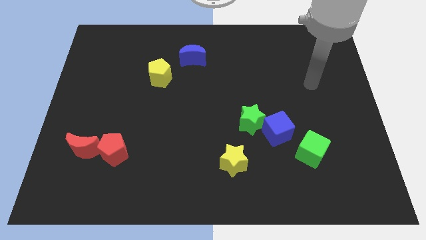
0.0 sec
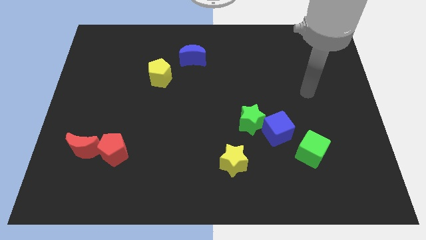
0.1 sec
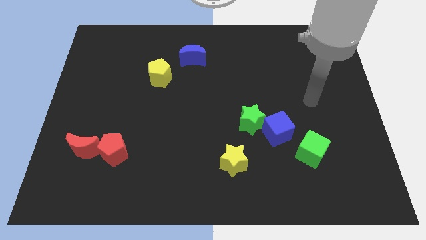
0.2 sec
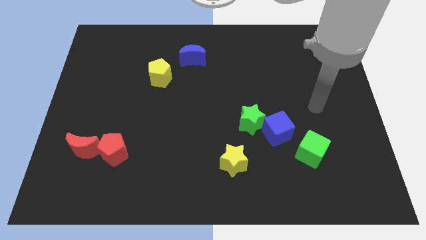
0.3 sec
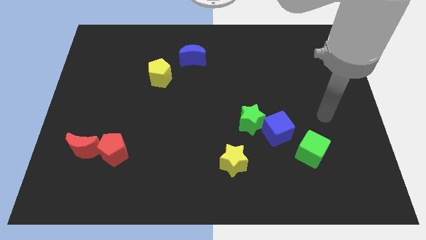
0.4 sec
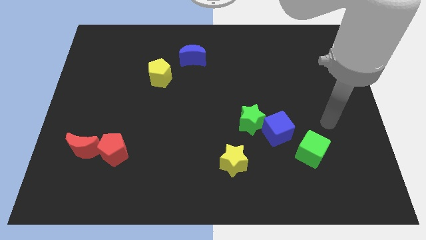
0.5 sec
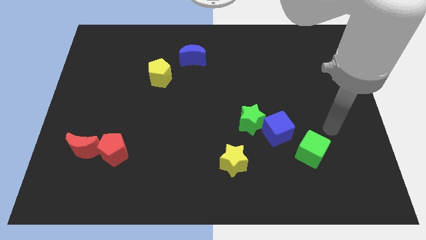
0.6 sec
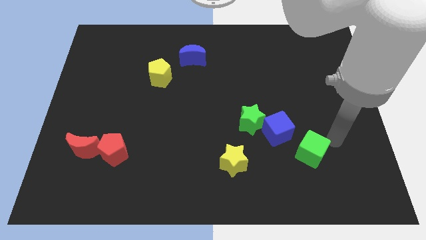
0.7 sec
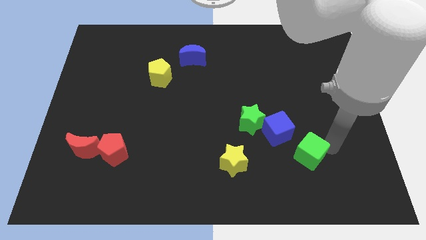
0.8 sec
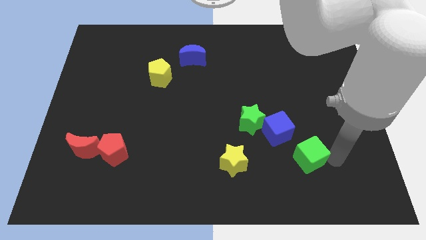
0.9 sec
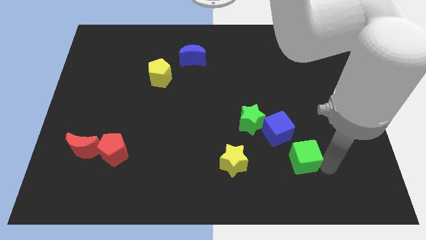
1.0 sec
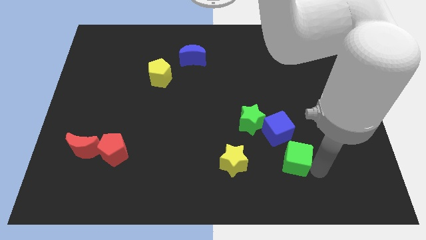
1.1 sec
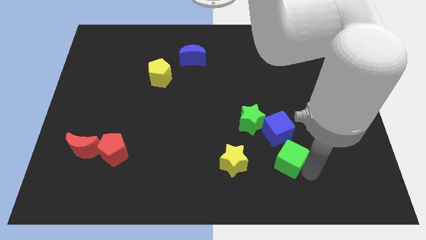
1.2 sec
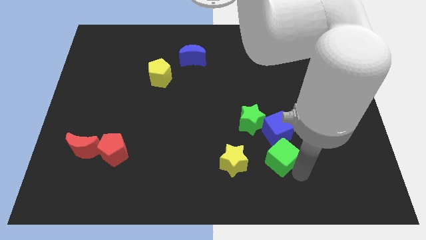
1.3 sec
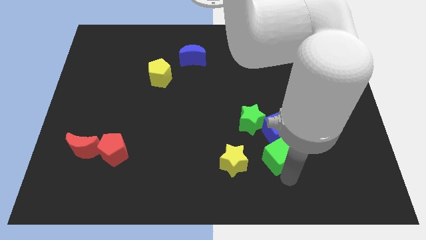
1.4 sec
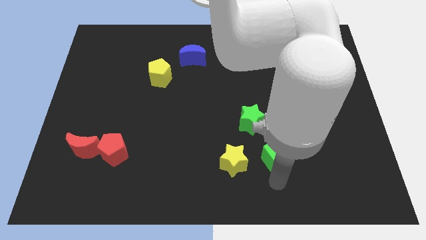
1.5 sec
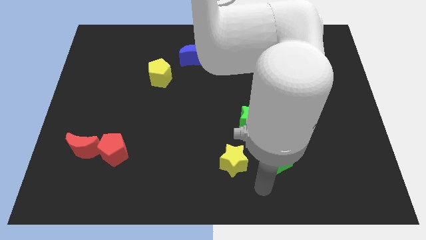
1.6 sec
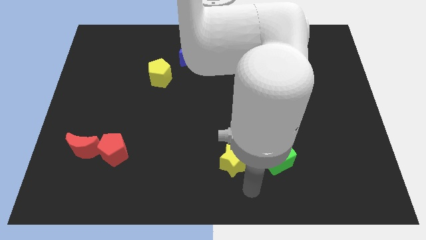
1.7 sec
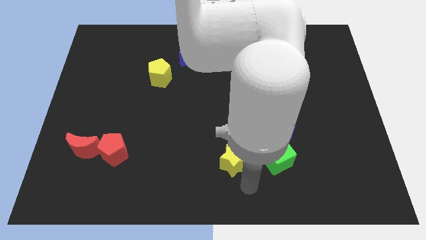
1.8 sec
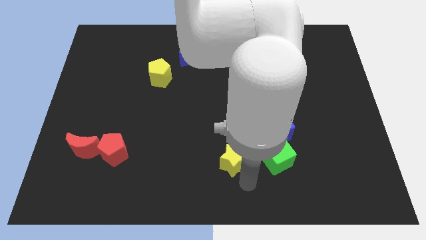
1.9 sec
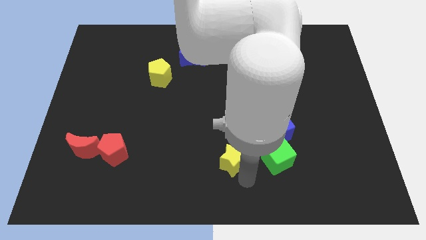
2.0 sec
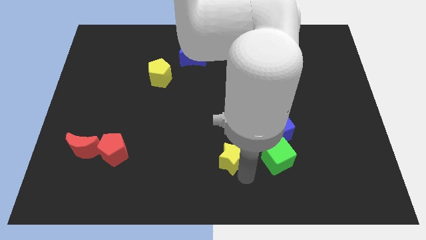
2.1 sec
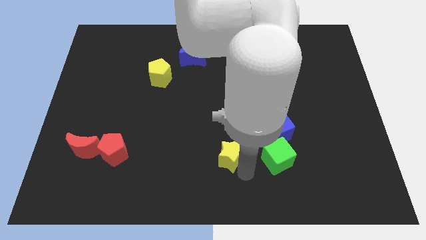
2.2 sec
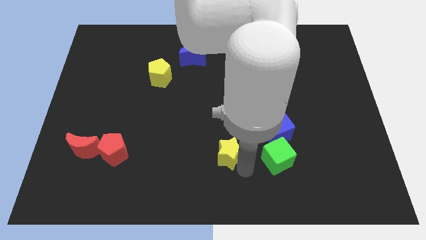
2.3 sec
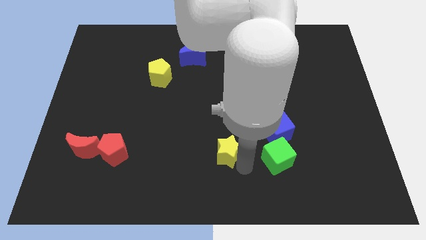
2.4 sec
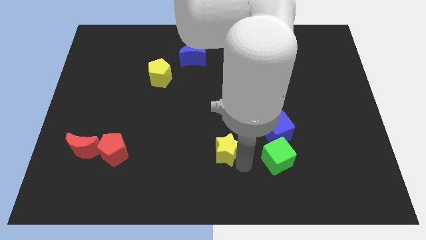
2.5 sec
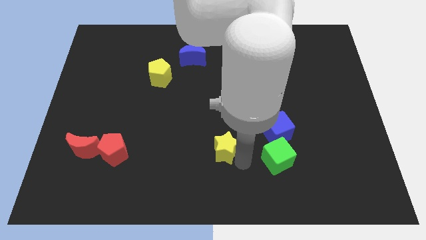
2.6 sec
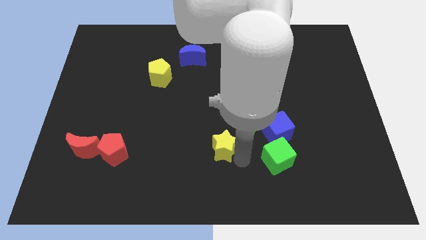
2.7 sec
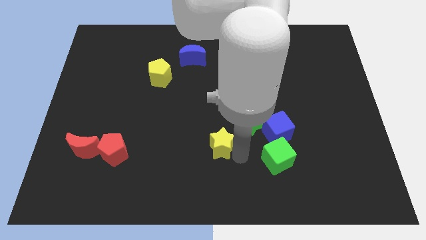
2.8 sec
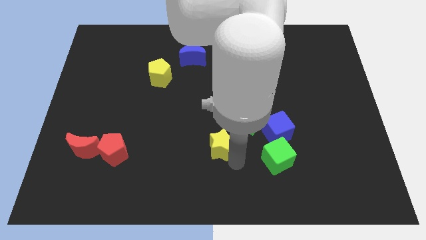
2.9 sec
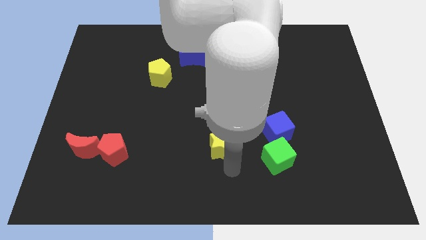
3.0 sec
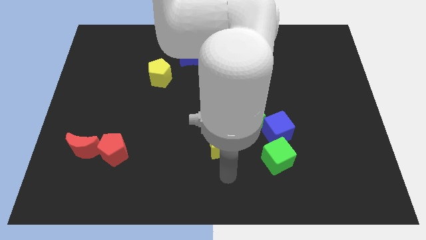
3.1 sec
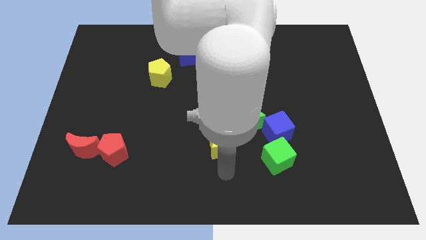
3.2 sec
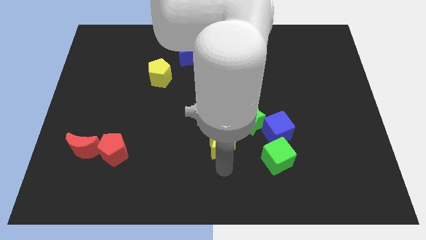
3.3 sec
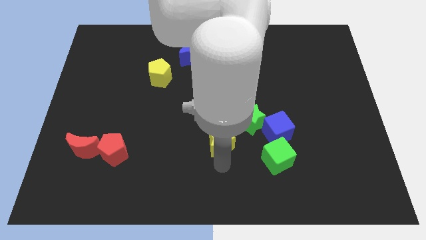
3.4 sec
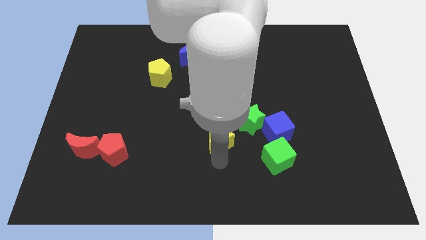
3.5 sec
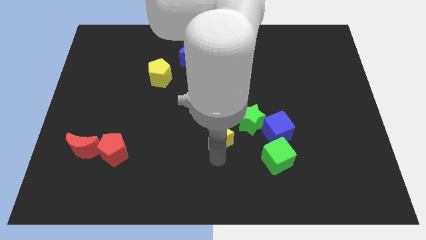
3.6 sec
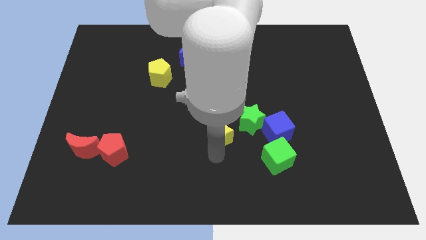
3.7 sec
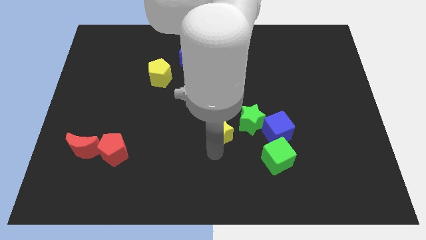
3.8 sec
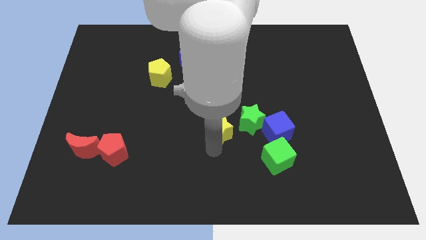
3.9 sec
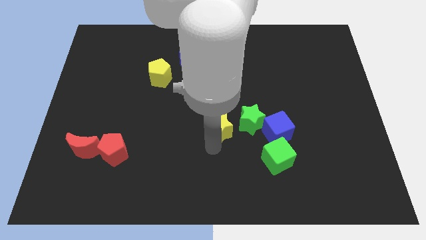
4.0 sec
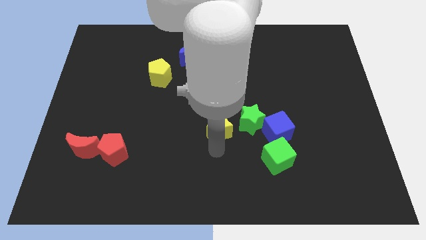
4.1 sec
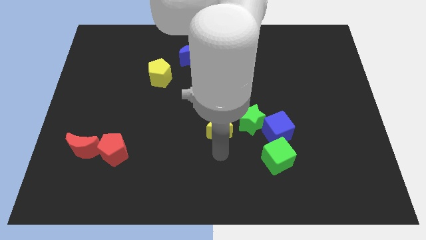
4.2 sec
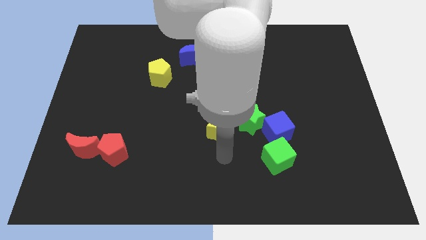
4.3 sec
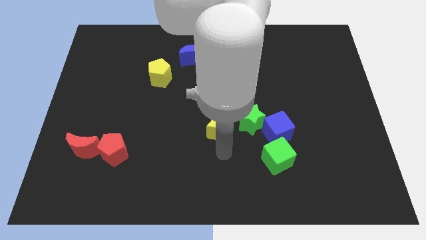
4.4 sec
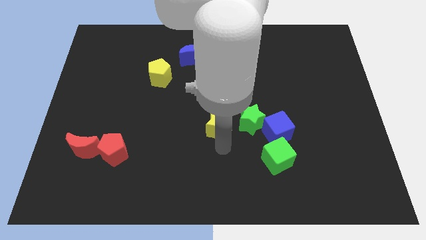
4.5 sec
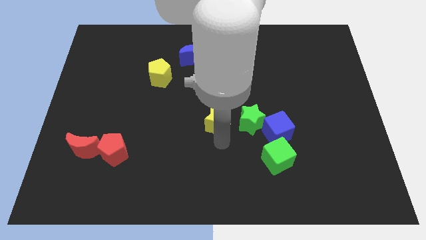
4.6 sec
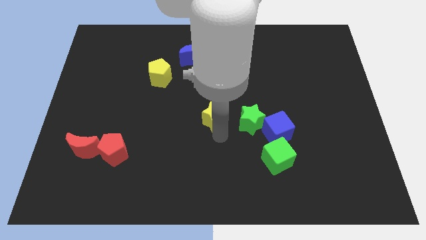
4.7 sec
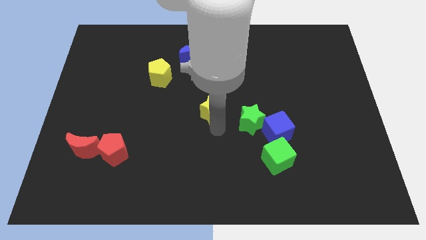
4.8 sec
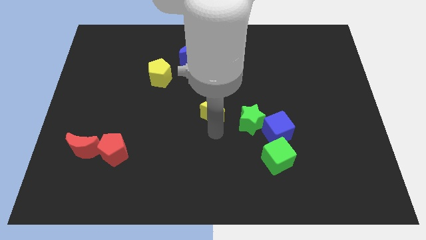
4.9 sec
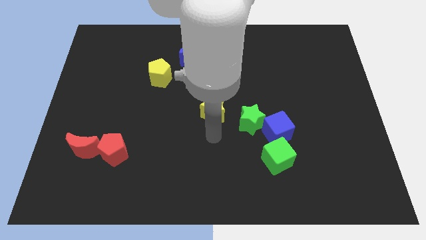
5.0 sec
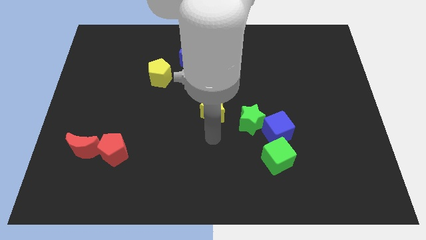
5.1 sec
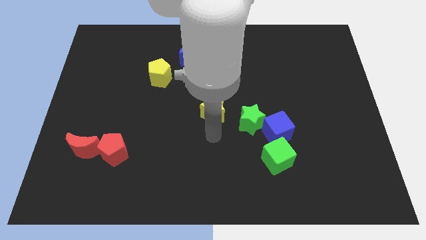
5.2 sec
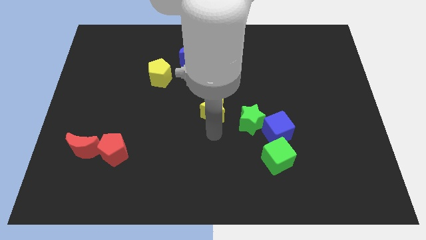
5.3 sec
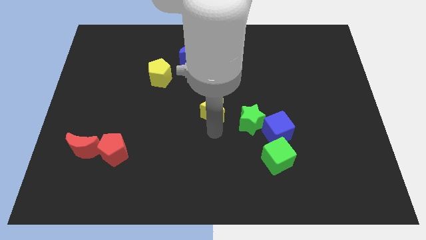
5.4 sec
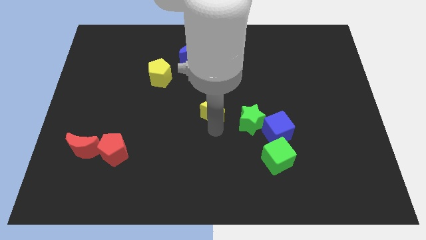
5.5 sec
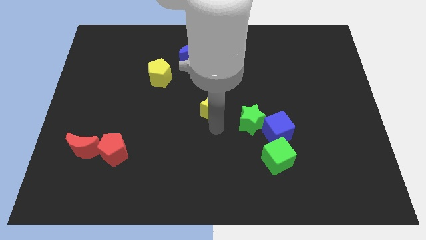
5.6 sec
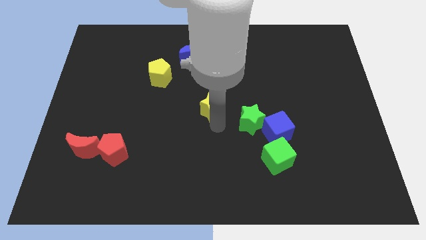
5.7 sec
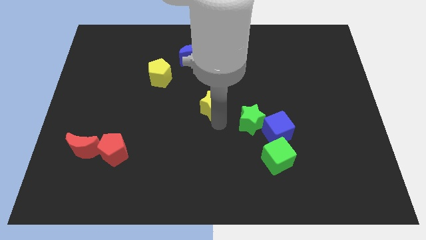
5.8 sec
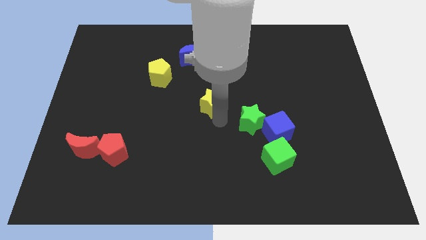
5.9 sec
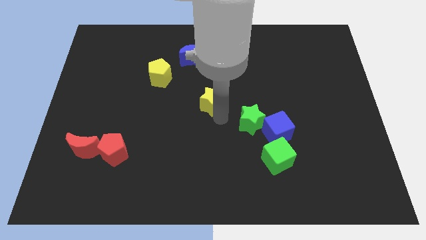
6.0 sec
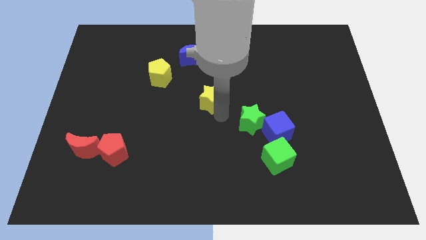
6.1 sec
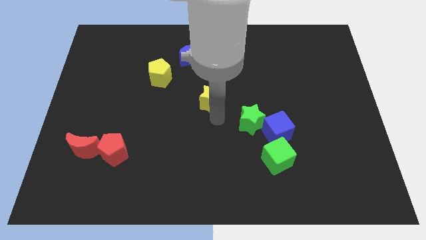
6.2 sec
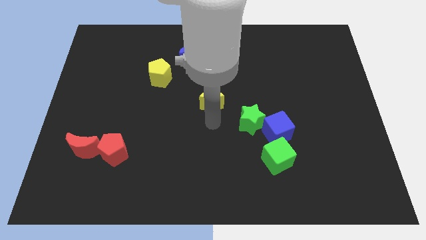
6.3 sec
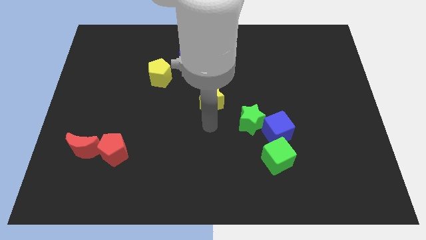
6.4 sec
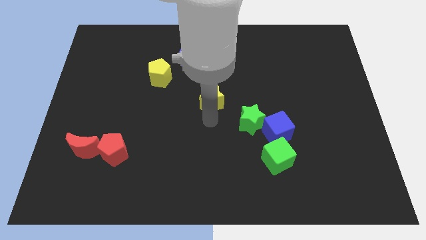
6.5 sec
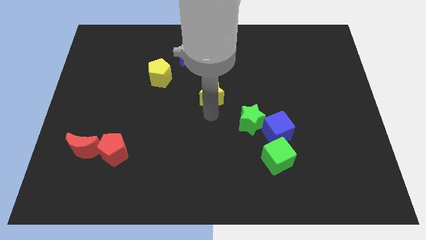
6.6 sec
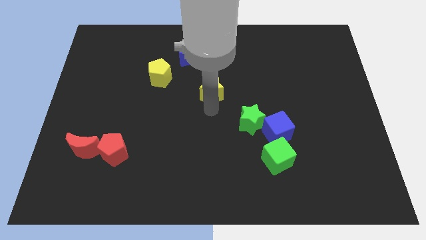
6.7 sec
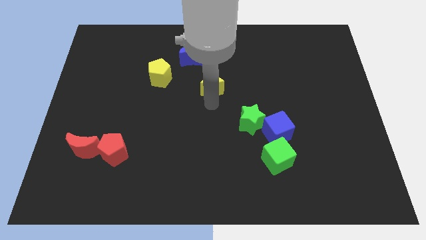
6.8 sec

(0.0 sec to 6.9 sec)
move the yellow star to the bottom right side of the blue moon
